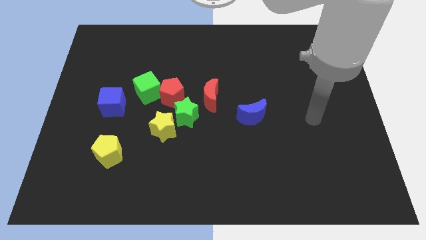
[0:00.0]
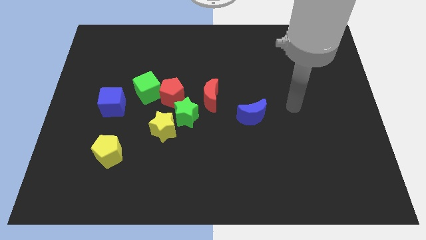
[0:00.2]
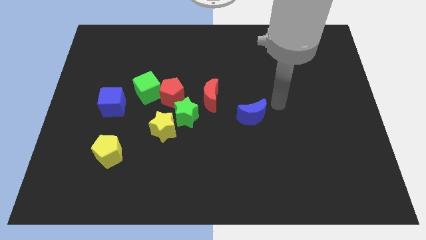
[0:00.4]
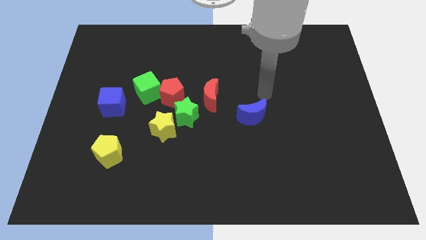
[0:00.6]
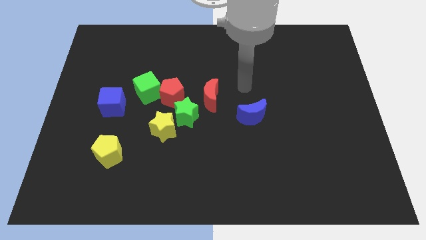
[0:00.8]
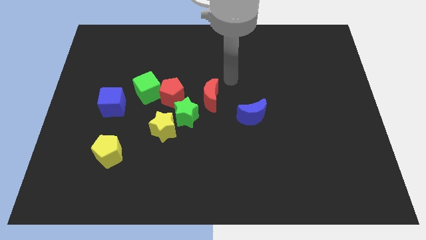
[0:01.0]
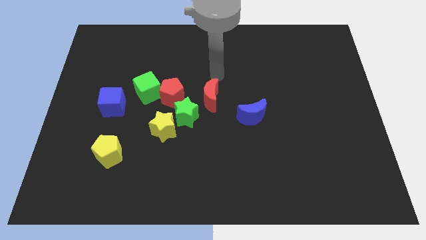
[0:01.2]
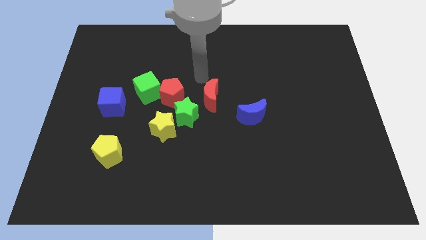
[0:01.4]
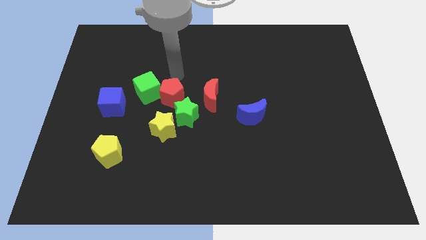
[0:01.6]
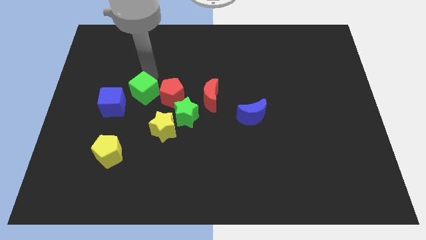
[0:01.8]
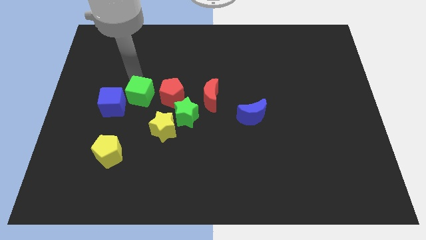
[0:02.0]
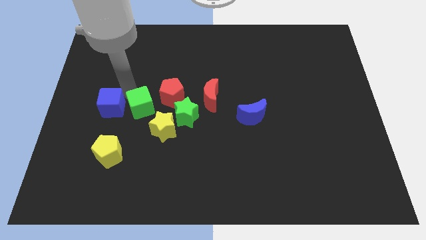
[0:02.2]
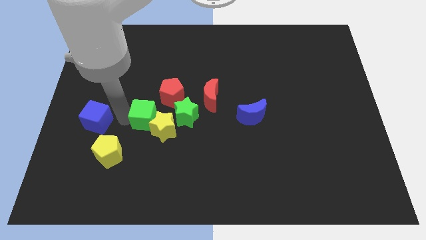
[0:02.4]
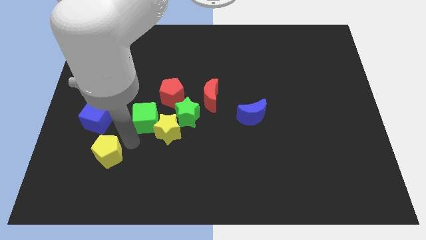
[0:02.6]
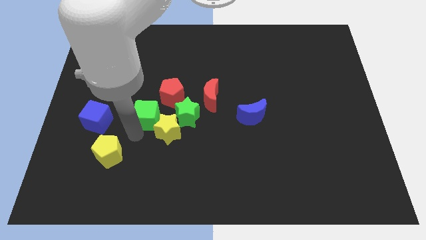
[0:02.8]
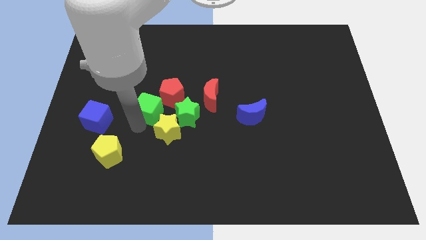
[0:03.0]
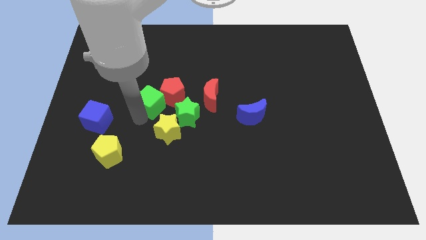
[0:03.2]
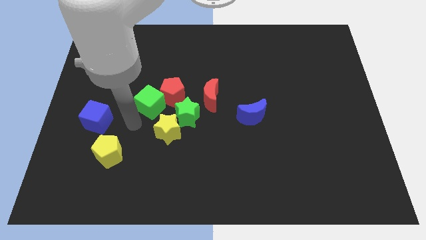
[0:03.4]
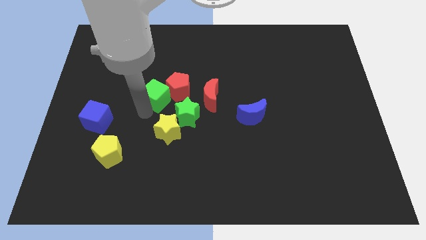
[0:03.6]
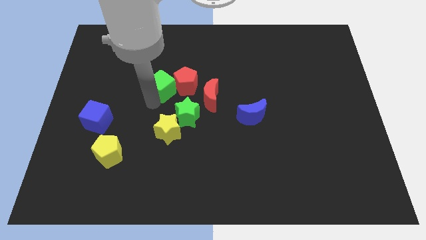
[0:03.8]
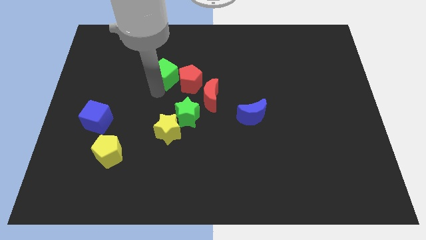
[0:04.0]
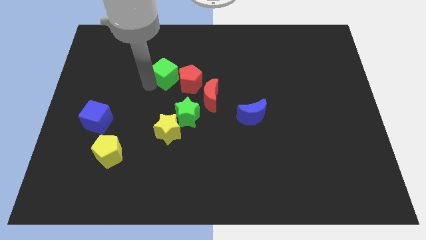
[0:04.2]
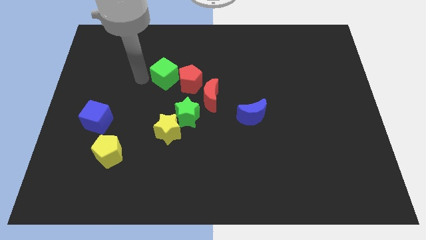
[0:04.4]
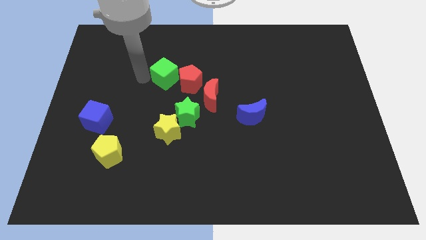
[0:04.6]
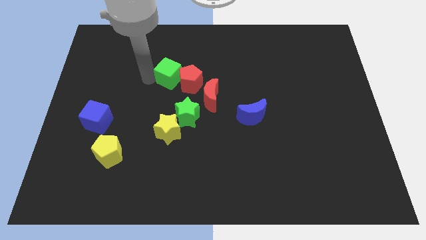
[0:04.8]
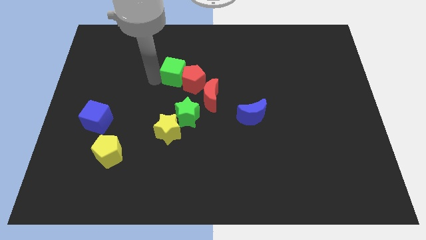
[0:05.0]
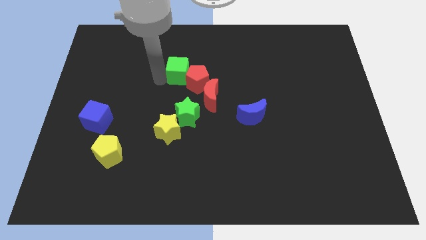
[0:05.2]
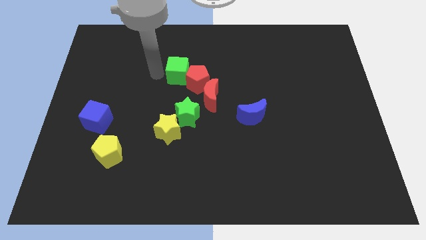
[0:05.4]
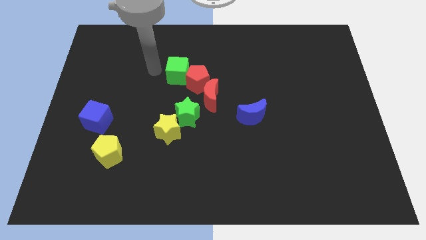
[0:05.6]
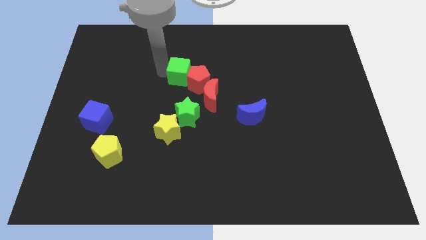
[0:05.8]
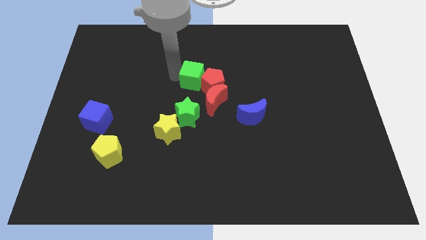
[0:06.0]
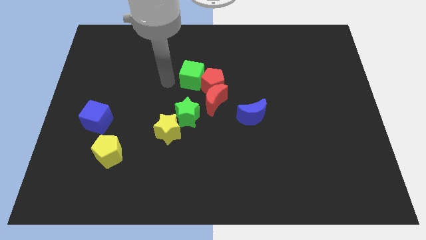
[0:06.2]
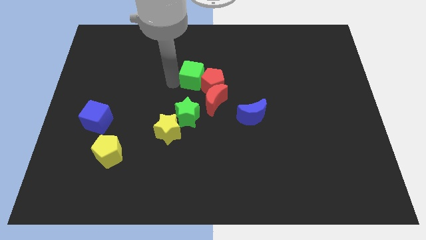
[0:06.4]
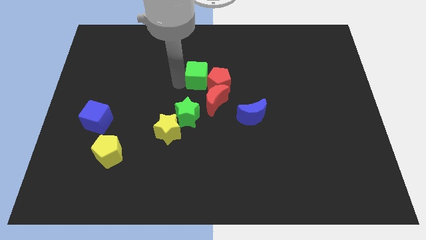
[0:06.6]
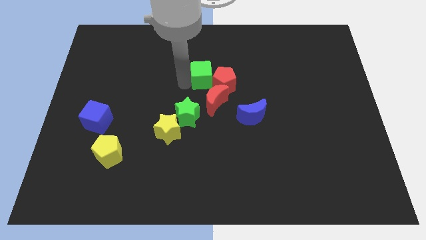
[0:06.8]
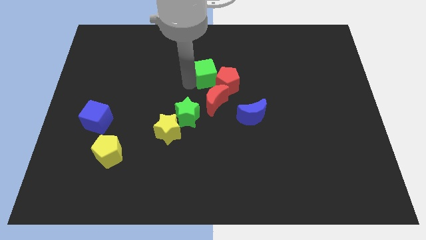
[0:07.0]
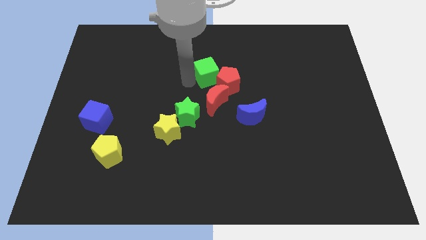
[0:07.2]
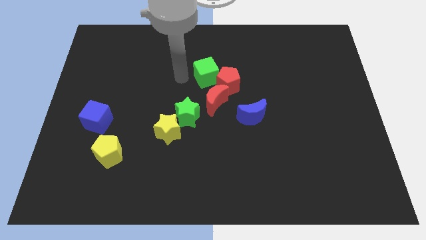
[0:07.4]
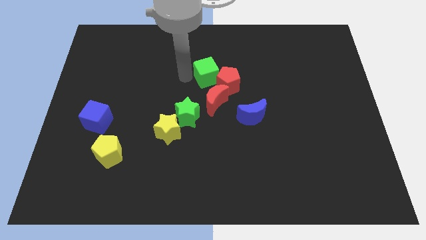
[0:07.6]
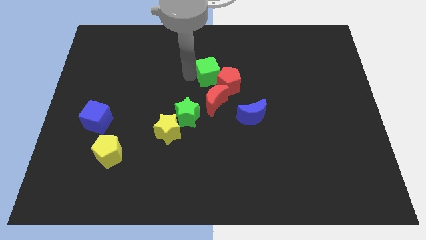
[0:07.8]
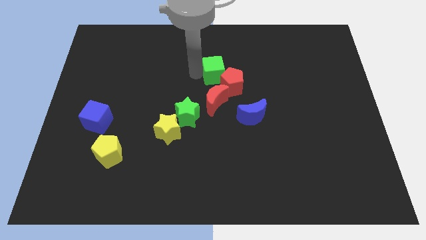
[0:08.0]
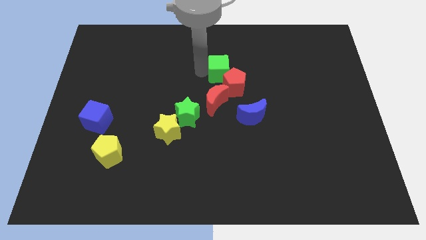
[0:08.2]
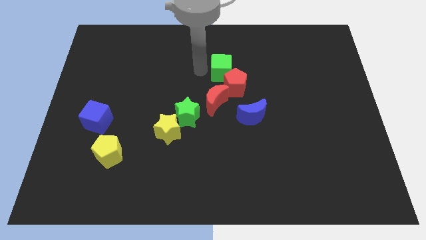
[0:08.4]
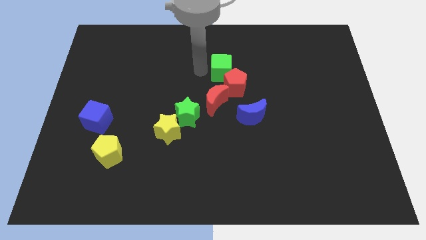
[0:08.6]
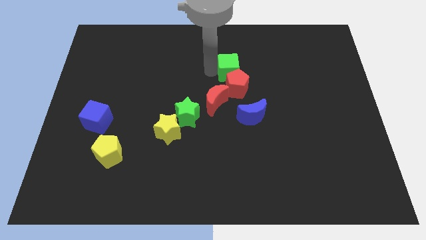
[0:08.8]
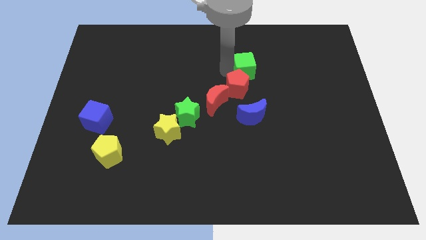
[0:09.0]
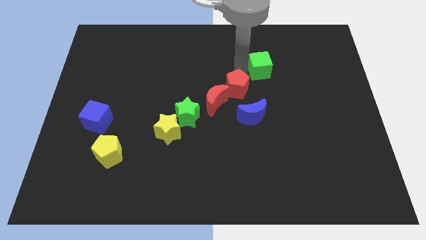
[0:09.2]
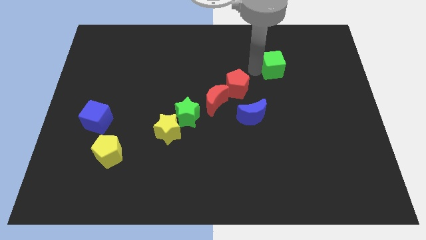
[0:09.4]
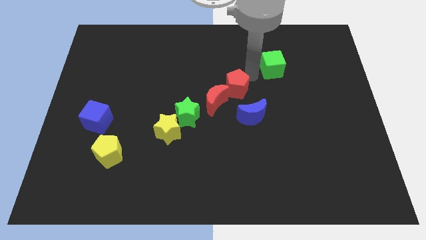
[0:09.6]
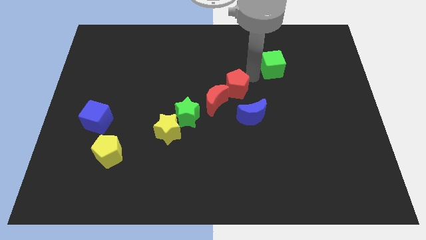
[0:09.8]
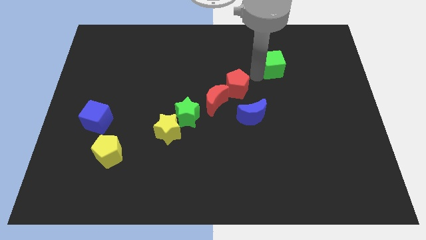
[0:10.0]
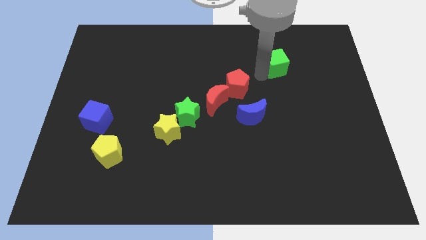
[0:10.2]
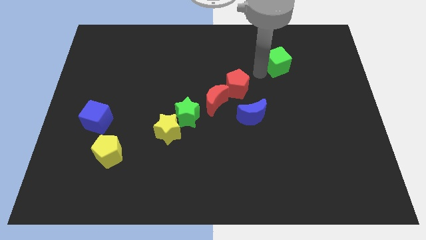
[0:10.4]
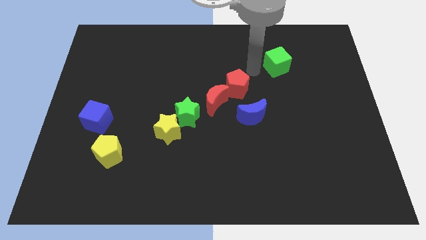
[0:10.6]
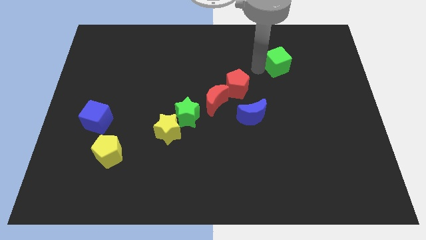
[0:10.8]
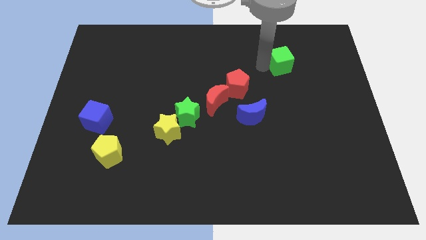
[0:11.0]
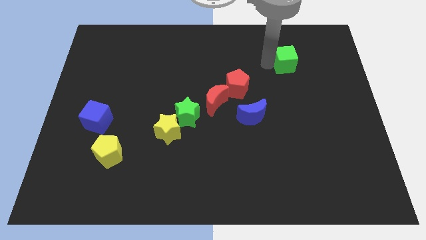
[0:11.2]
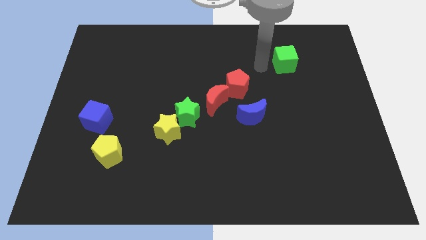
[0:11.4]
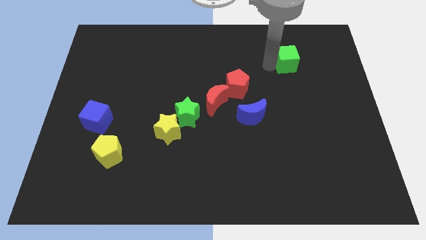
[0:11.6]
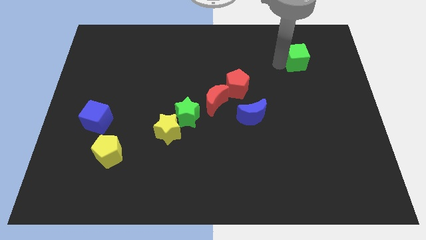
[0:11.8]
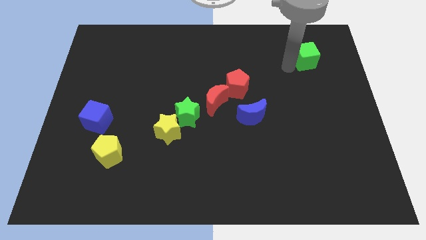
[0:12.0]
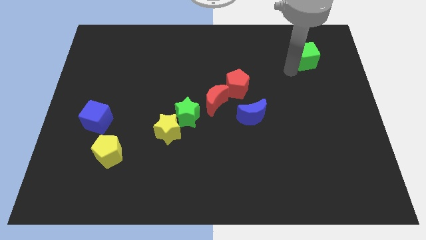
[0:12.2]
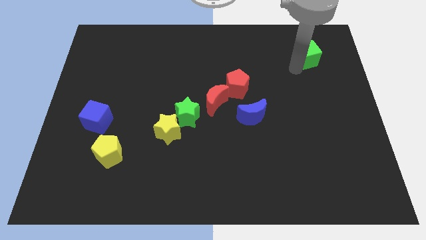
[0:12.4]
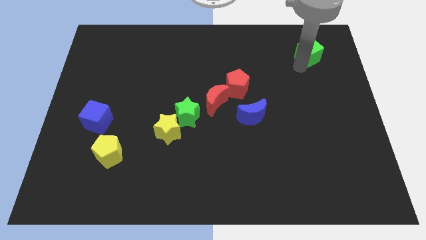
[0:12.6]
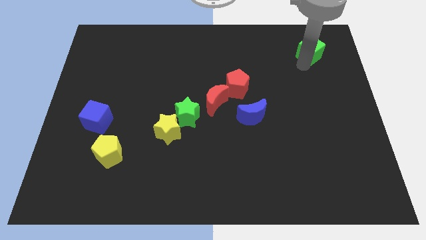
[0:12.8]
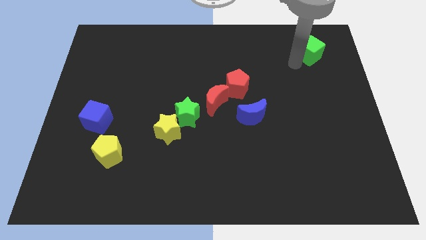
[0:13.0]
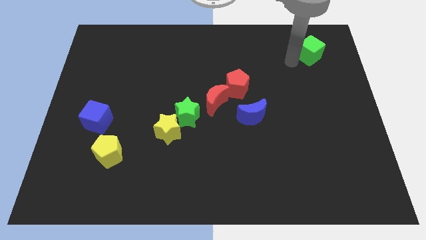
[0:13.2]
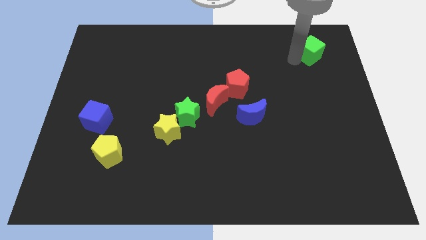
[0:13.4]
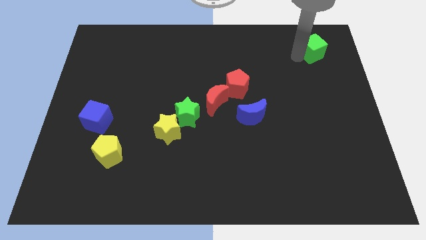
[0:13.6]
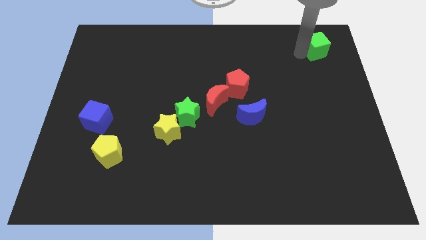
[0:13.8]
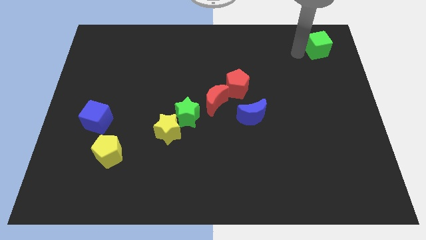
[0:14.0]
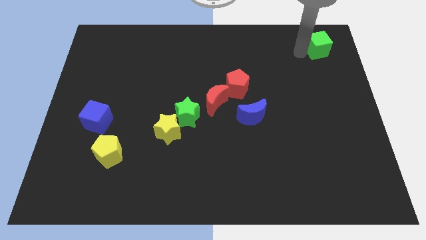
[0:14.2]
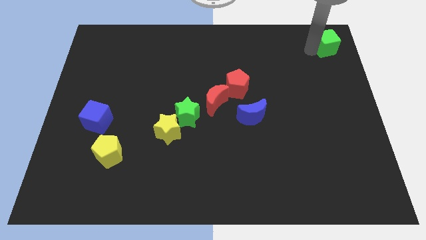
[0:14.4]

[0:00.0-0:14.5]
move the green cube to the upper right corner
